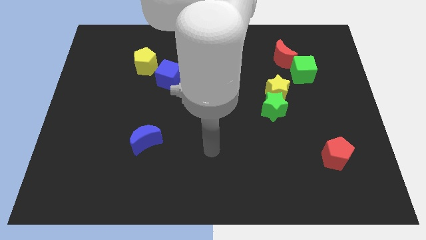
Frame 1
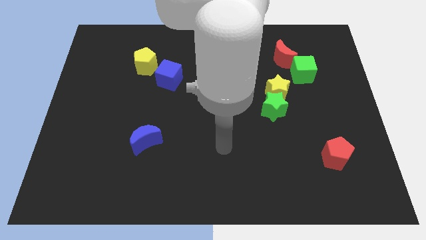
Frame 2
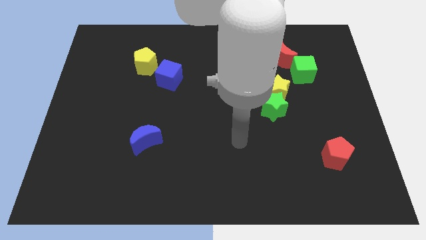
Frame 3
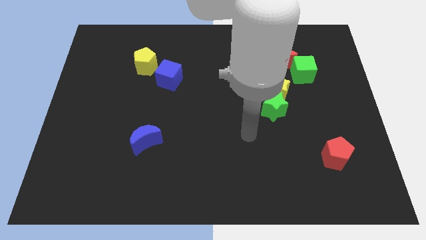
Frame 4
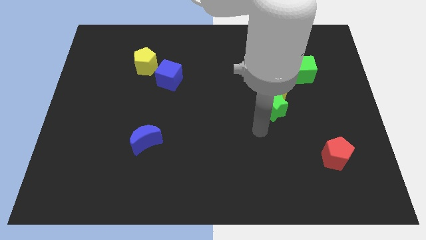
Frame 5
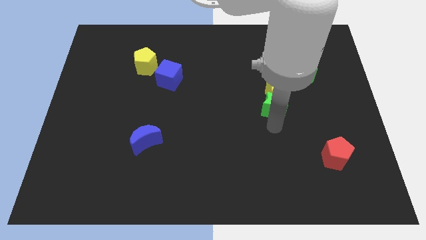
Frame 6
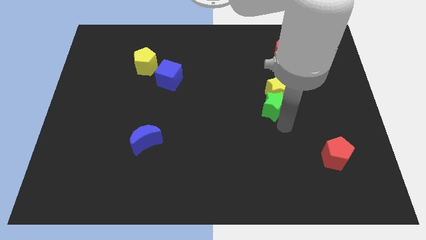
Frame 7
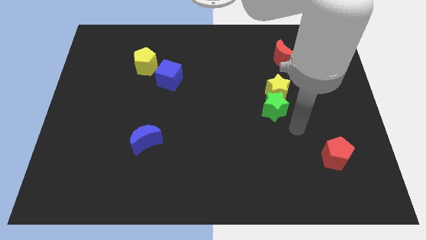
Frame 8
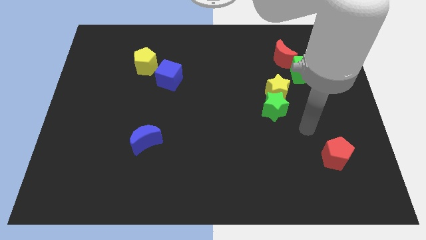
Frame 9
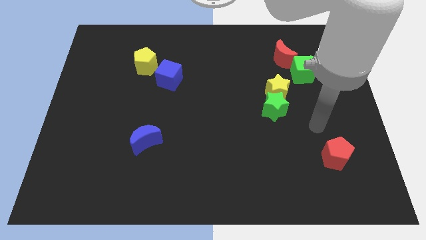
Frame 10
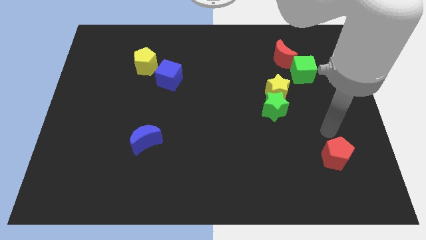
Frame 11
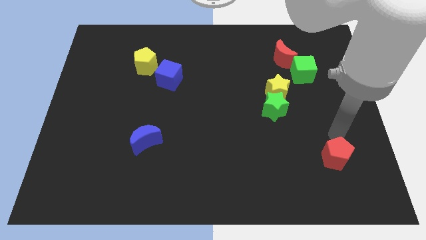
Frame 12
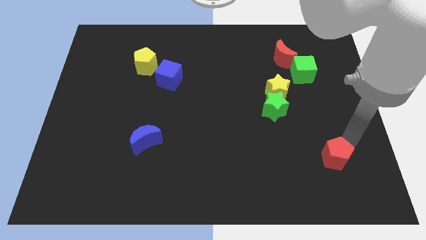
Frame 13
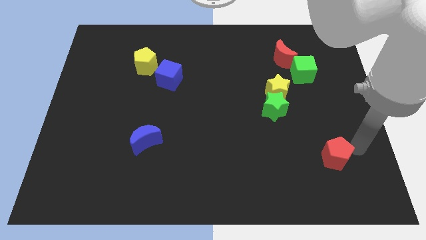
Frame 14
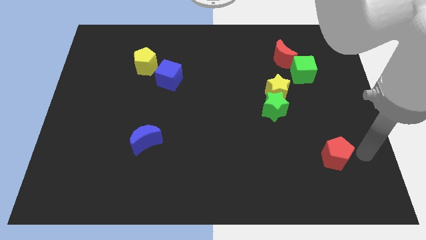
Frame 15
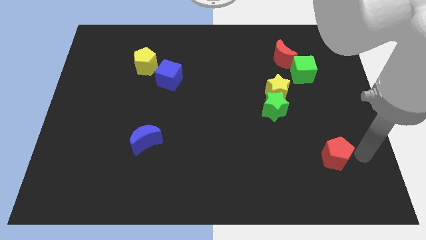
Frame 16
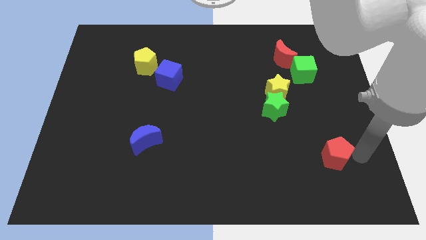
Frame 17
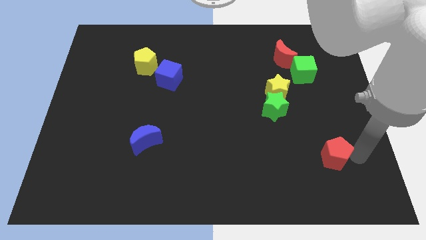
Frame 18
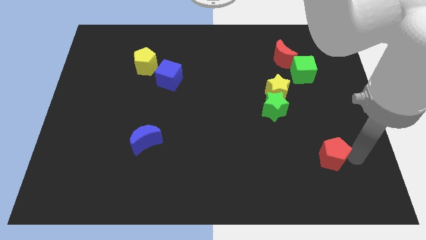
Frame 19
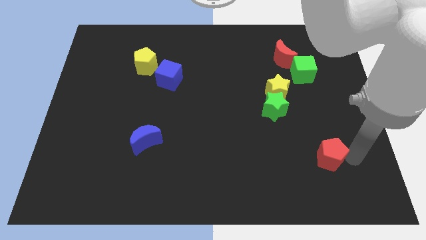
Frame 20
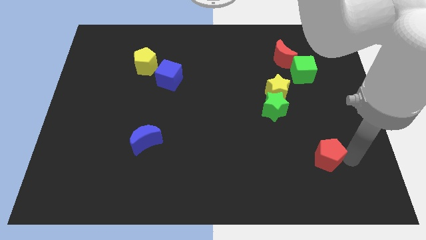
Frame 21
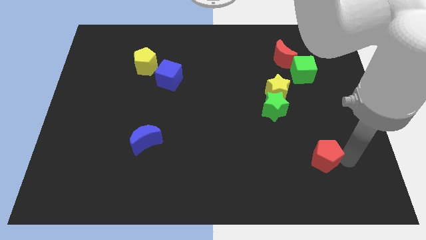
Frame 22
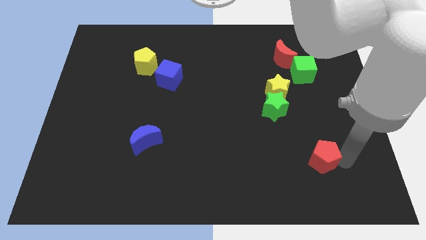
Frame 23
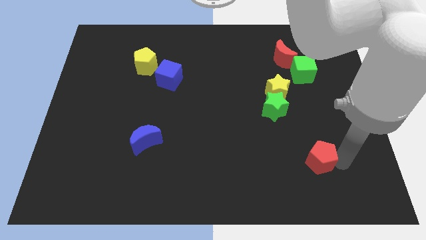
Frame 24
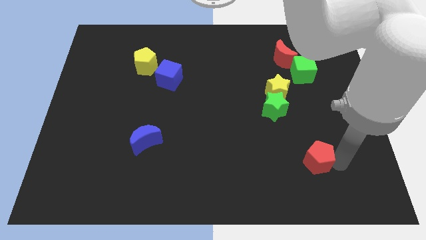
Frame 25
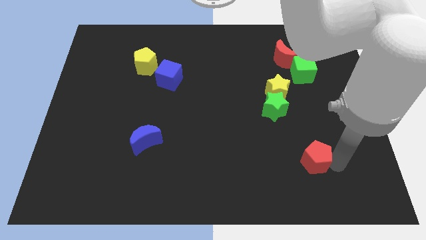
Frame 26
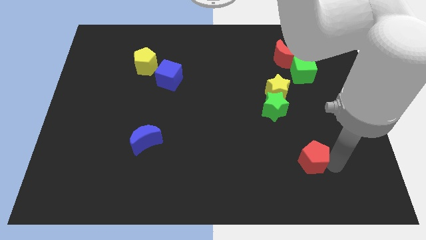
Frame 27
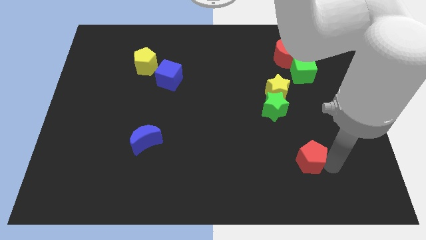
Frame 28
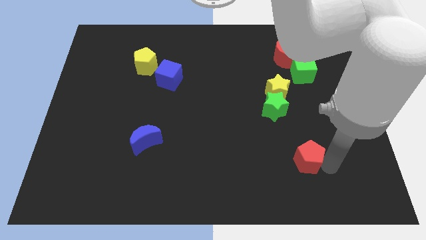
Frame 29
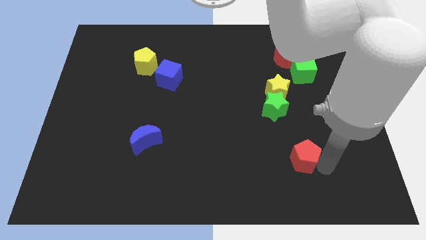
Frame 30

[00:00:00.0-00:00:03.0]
slide the red pentagon to the left somewhat

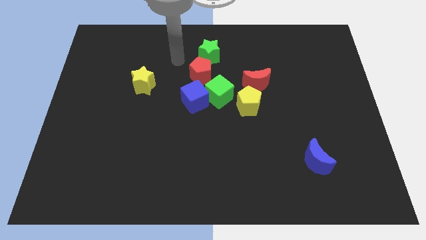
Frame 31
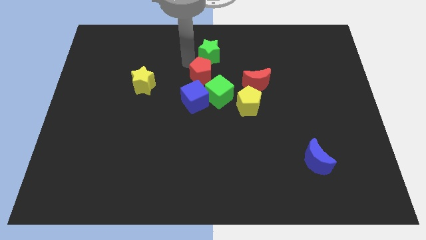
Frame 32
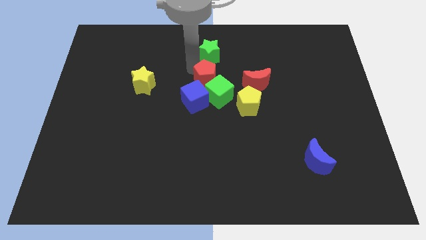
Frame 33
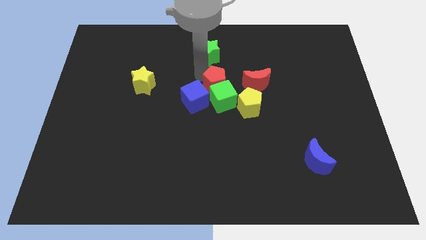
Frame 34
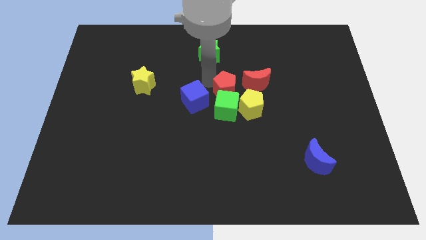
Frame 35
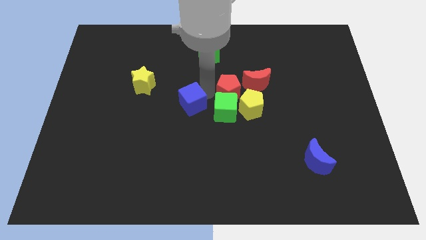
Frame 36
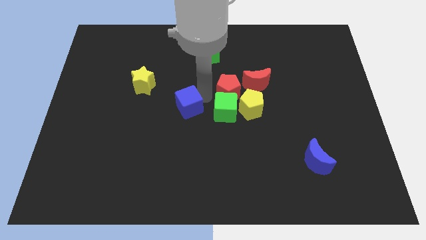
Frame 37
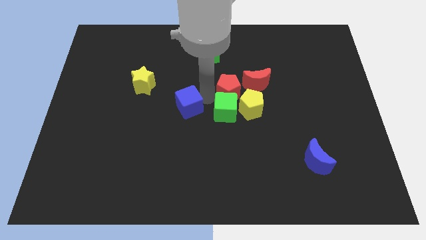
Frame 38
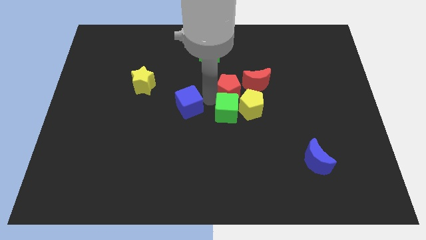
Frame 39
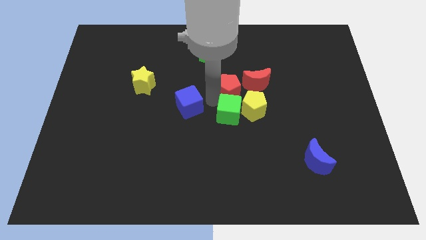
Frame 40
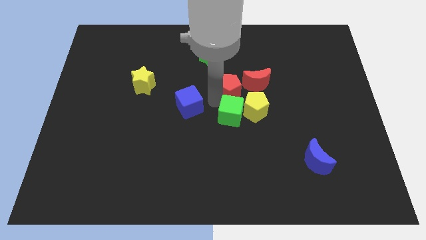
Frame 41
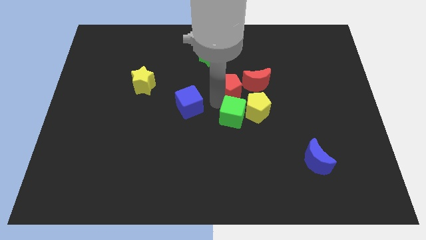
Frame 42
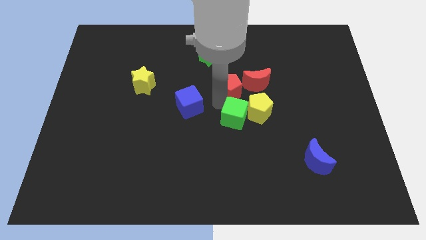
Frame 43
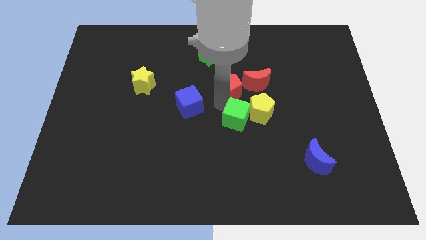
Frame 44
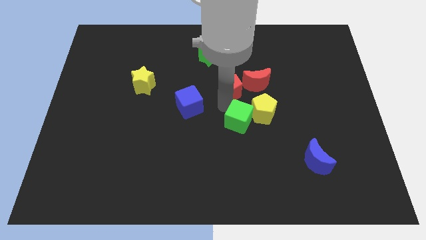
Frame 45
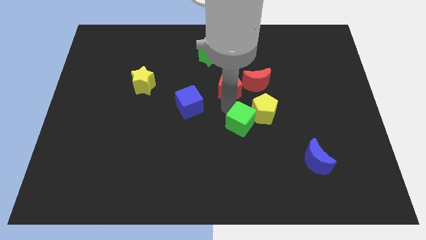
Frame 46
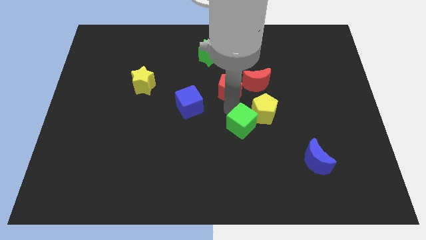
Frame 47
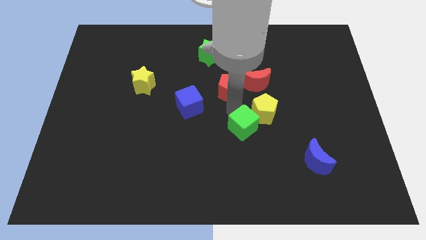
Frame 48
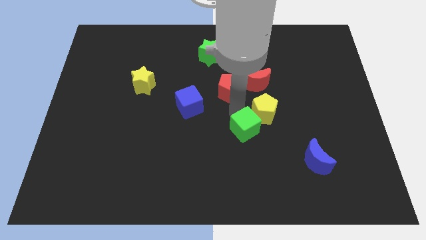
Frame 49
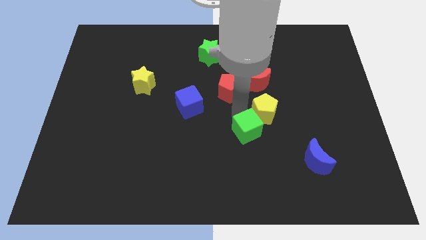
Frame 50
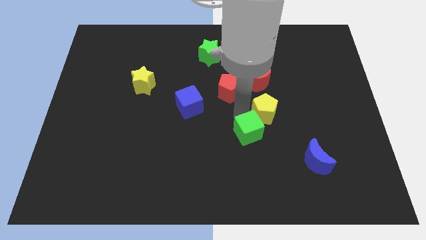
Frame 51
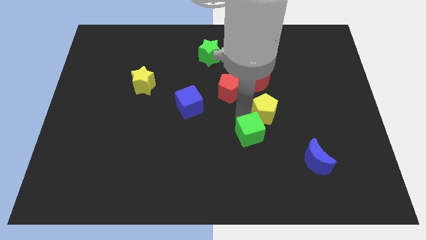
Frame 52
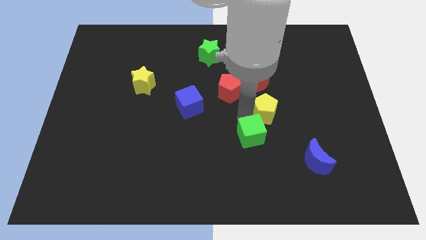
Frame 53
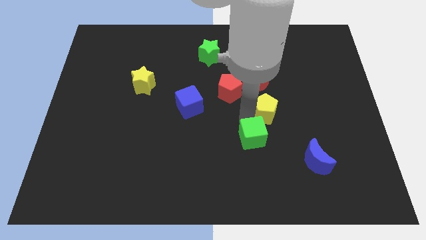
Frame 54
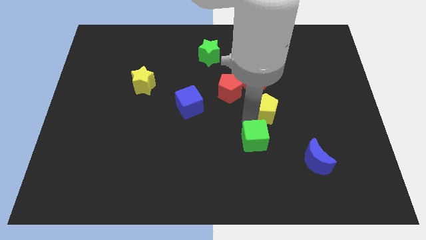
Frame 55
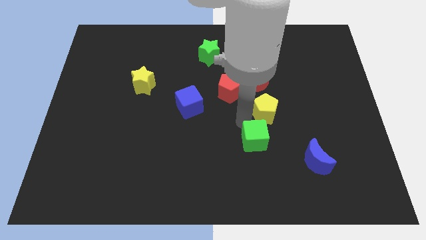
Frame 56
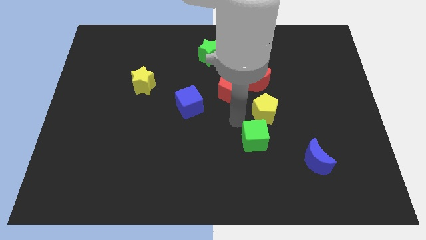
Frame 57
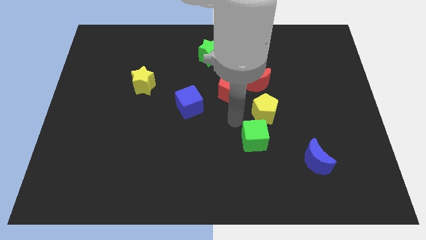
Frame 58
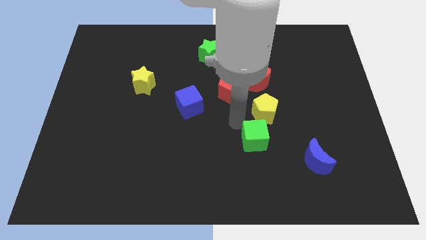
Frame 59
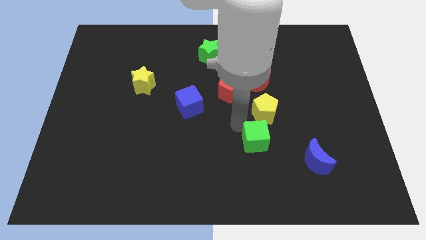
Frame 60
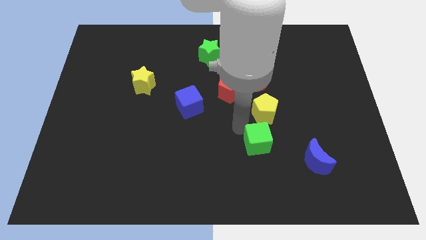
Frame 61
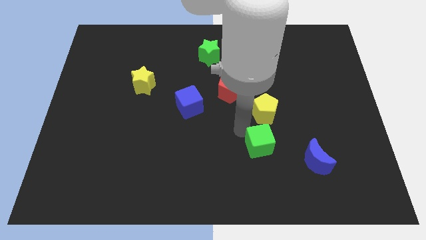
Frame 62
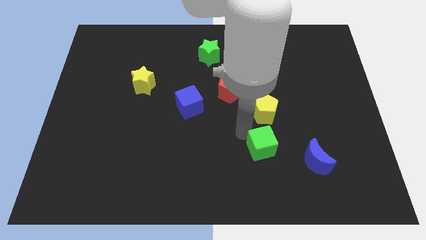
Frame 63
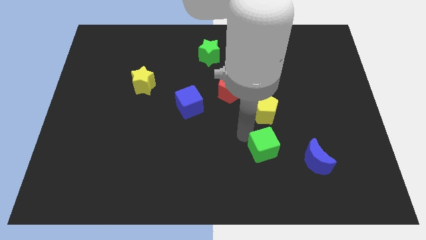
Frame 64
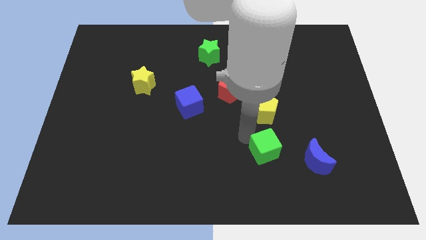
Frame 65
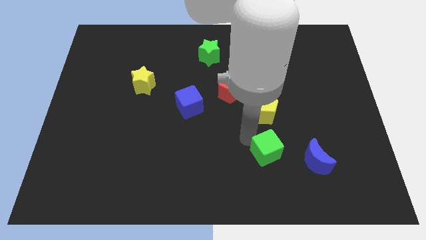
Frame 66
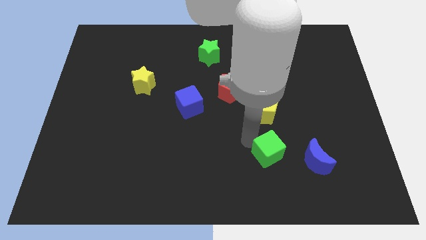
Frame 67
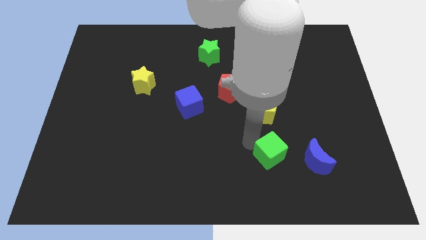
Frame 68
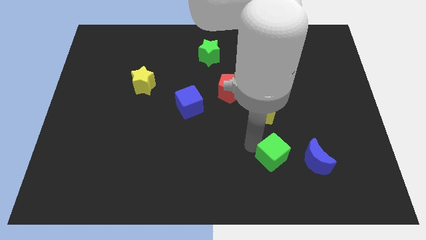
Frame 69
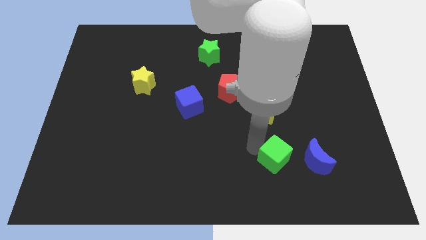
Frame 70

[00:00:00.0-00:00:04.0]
move the green cube downwards and to the right diagonally

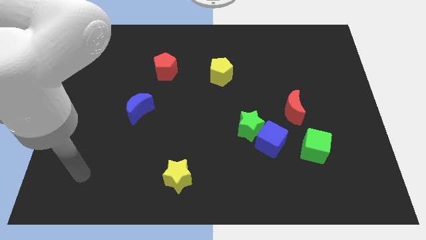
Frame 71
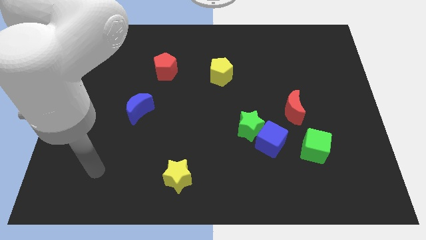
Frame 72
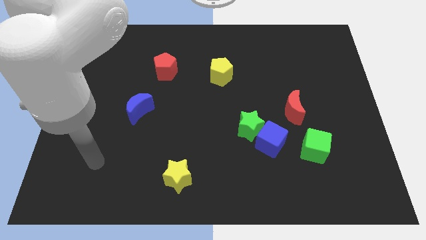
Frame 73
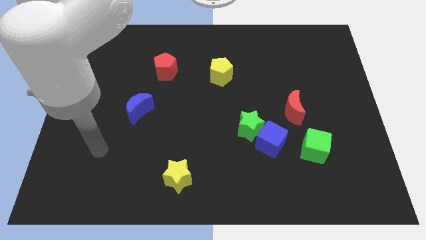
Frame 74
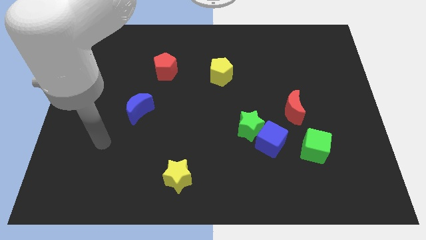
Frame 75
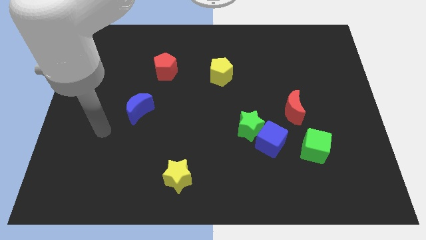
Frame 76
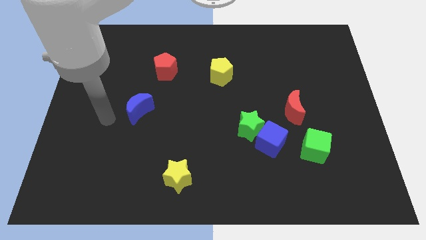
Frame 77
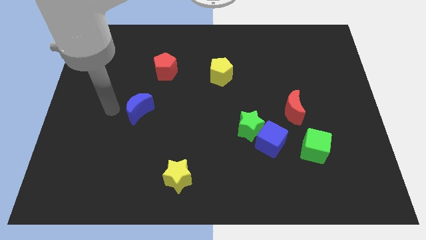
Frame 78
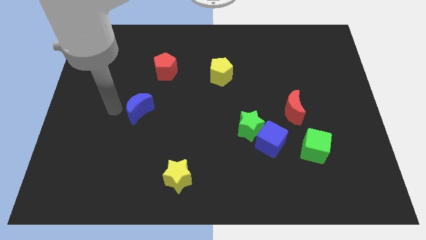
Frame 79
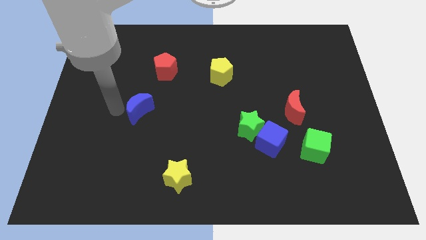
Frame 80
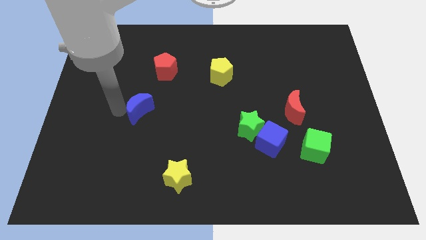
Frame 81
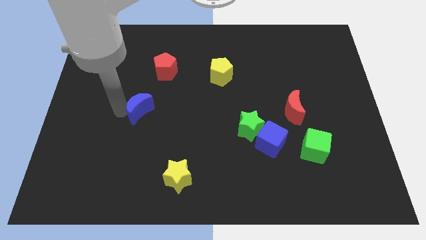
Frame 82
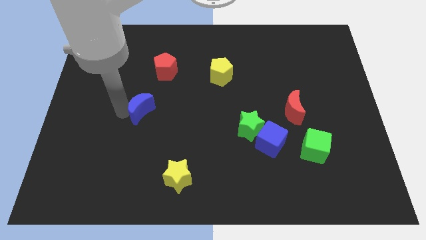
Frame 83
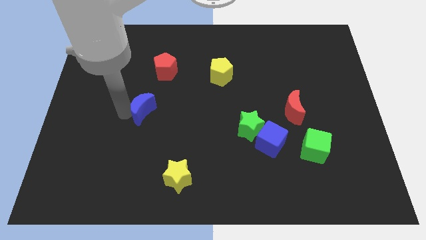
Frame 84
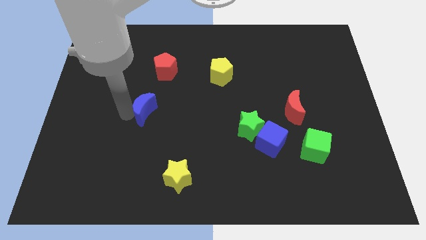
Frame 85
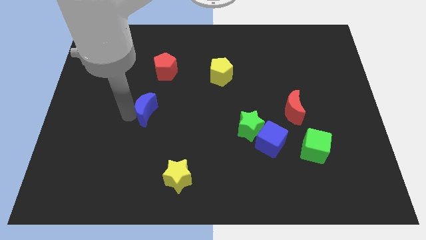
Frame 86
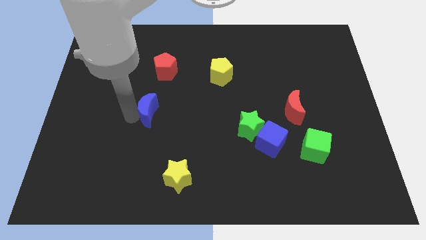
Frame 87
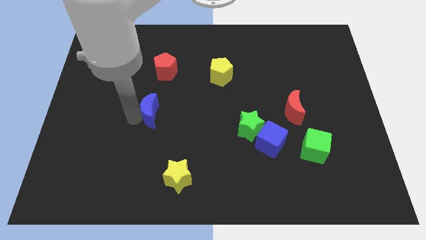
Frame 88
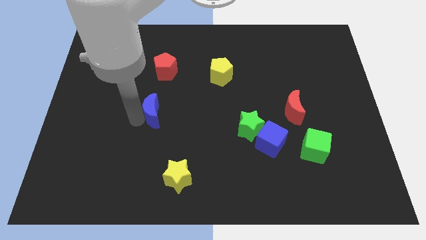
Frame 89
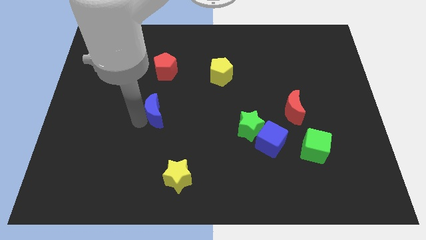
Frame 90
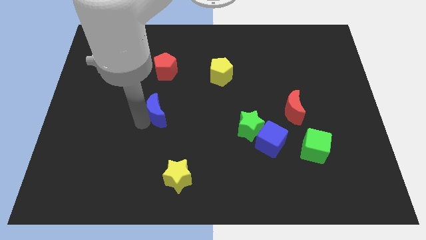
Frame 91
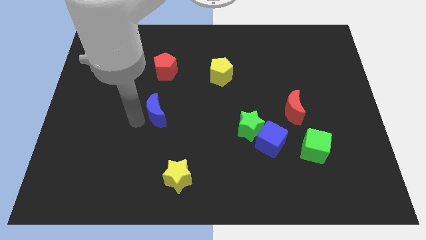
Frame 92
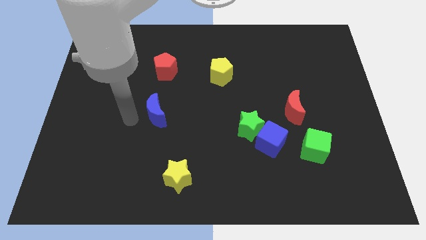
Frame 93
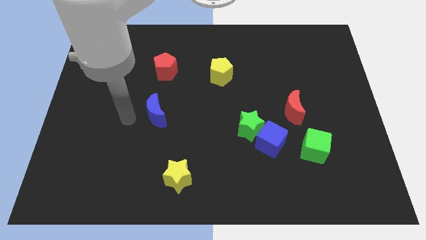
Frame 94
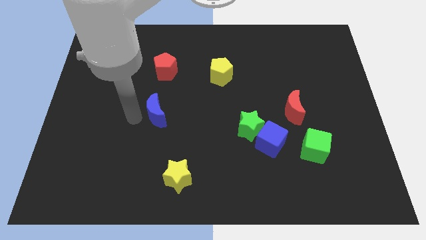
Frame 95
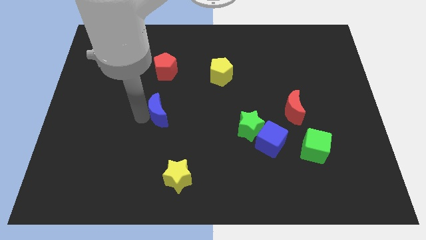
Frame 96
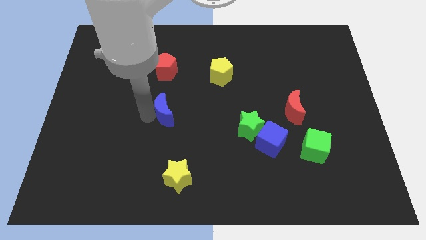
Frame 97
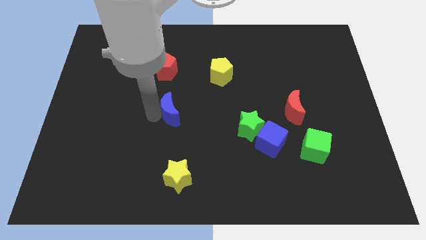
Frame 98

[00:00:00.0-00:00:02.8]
push the blue moon slightly to the right
